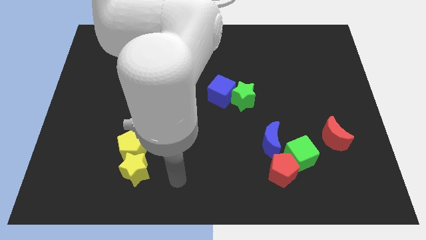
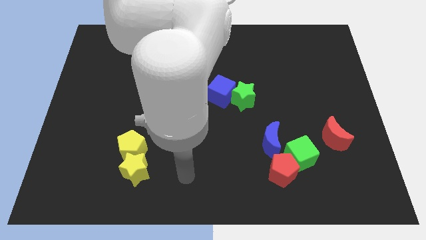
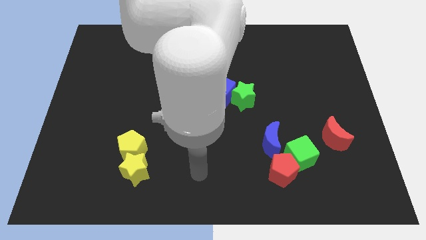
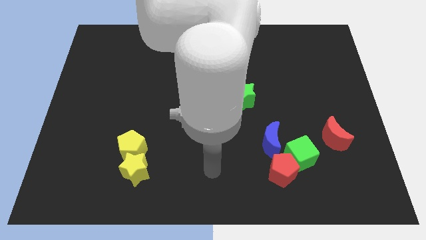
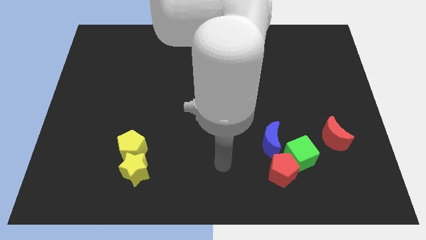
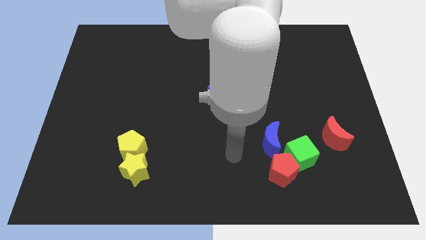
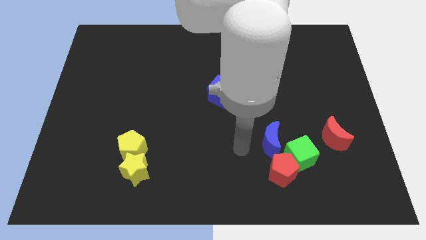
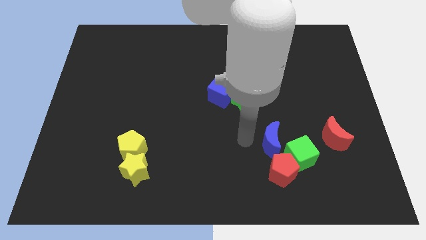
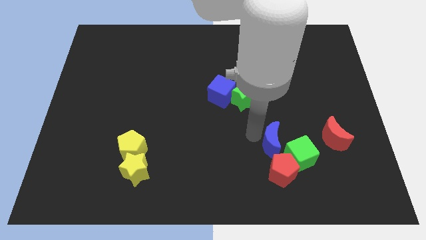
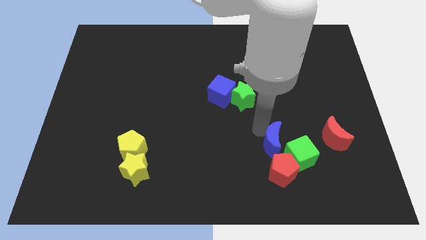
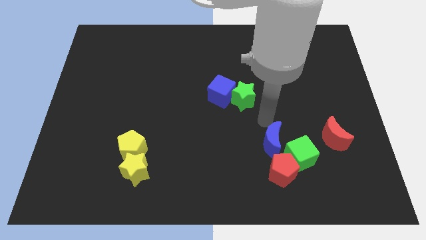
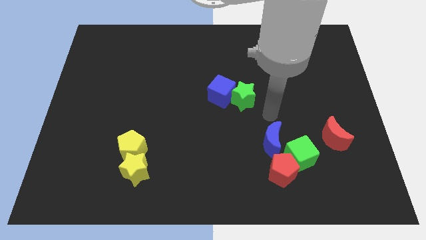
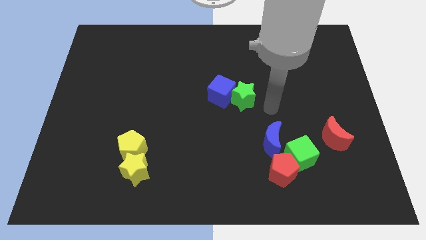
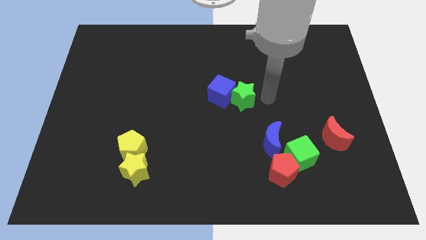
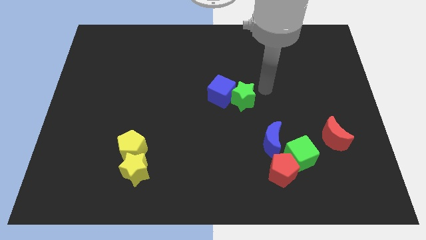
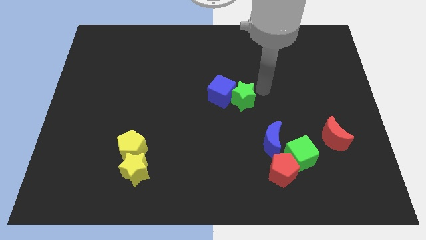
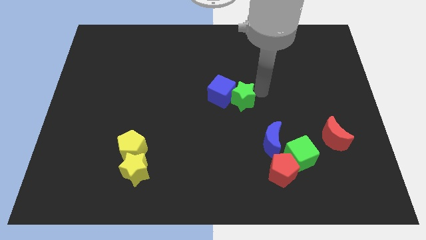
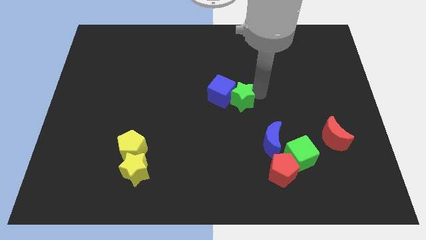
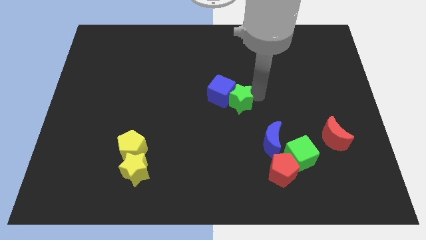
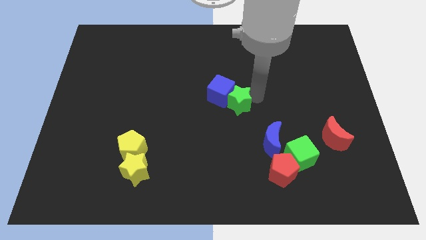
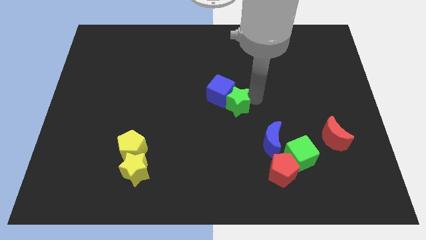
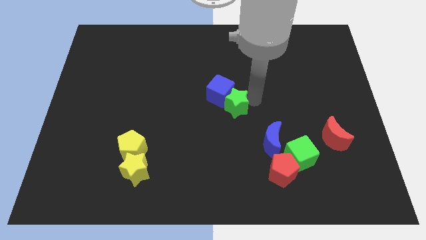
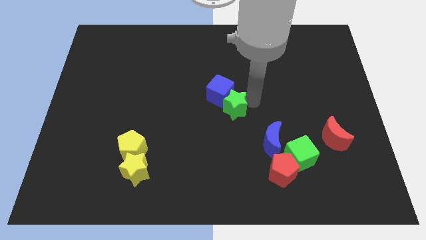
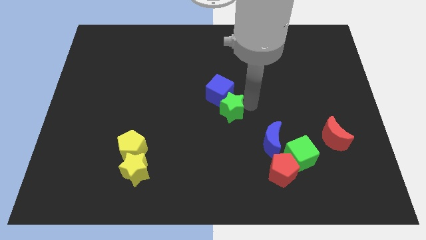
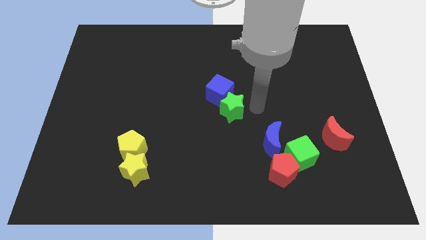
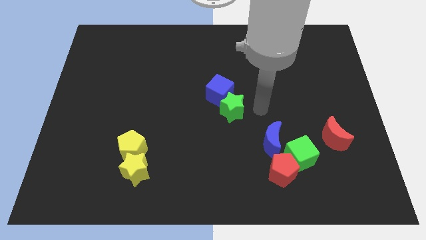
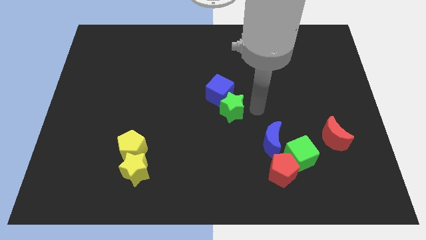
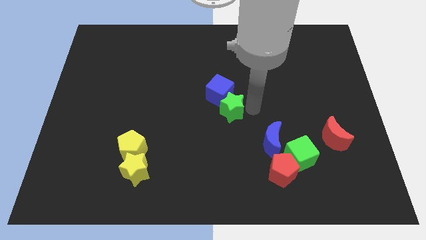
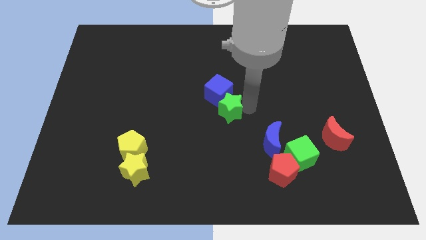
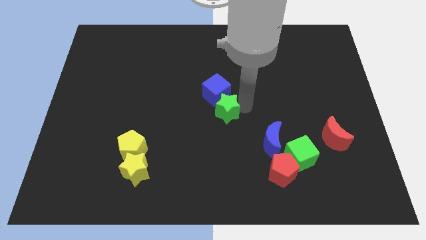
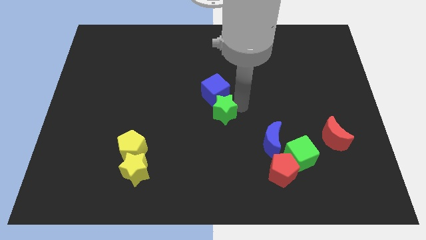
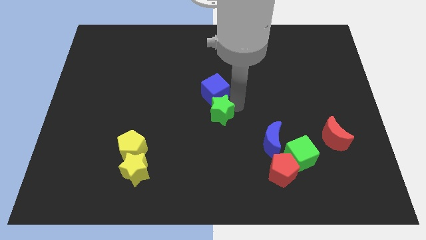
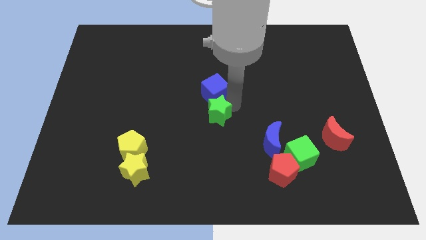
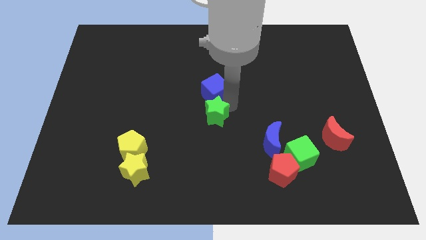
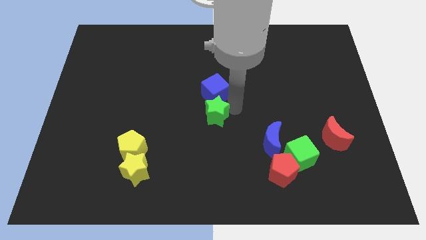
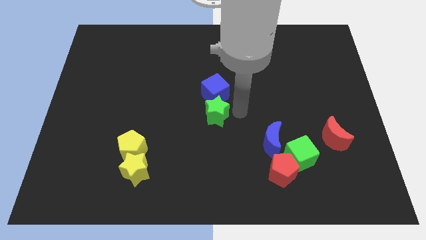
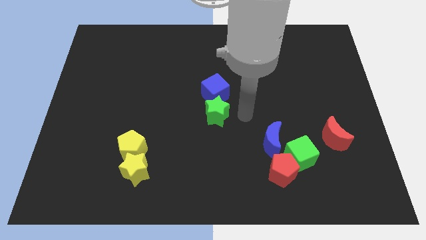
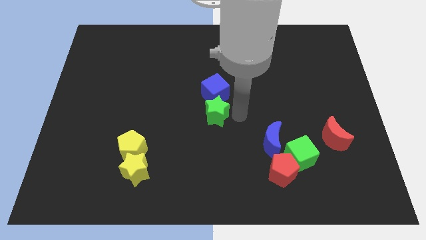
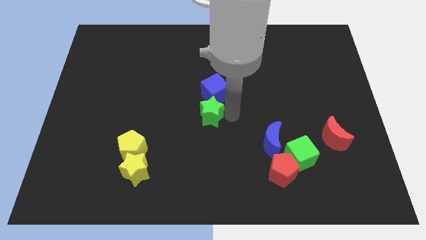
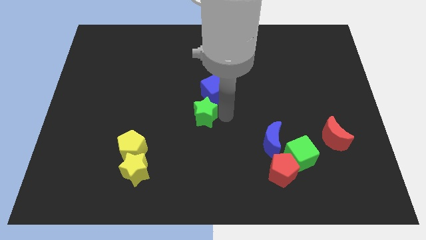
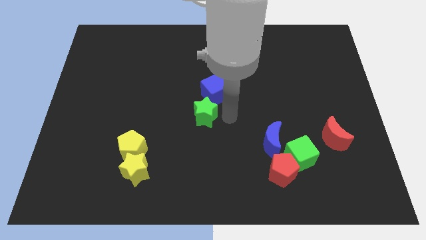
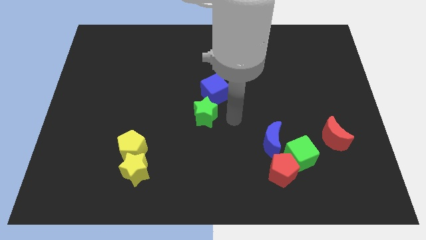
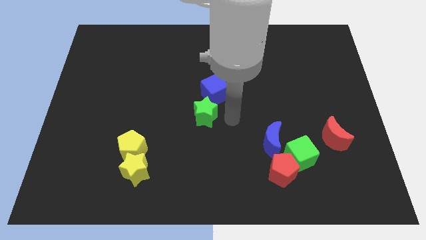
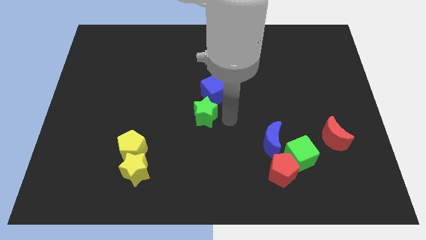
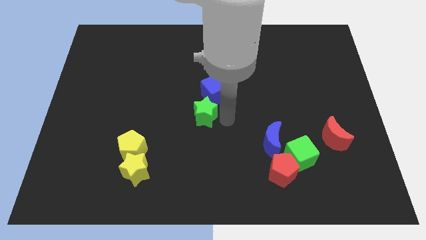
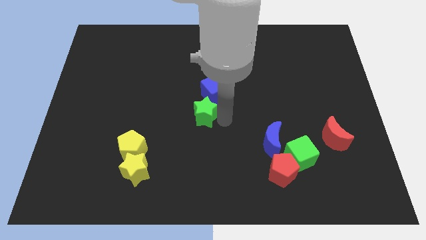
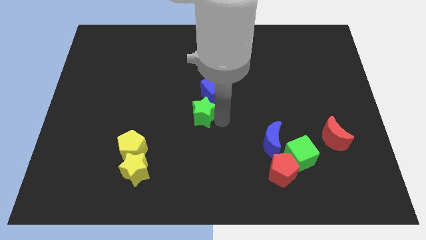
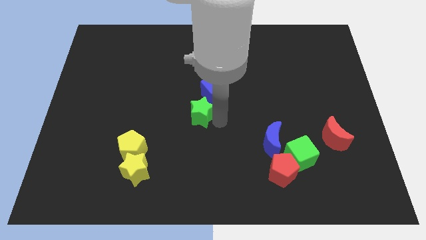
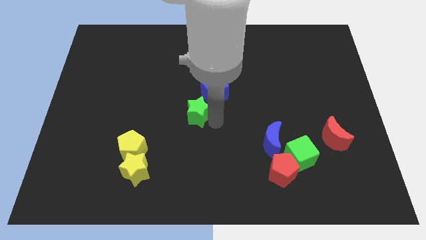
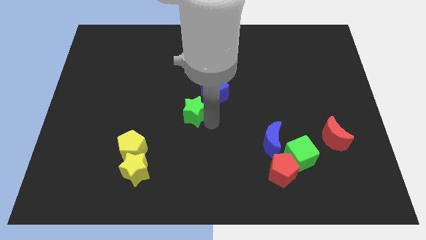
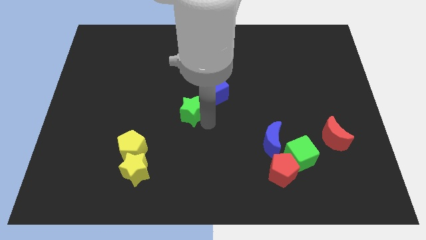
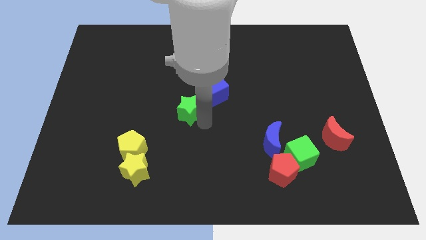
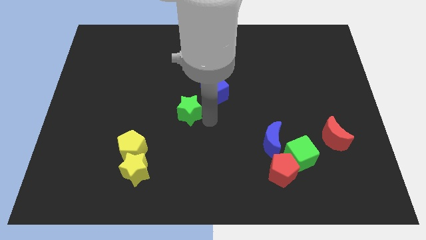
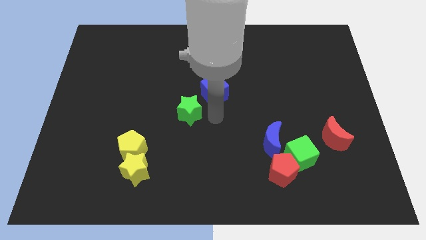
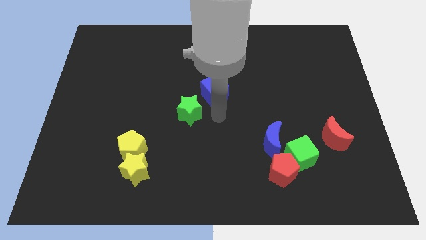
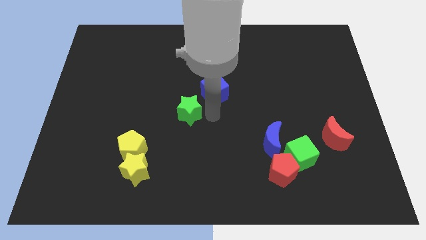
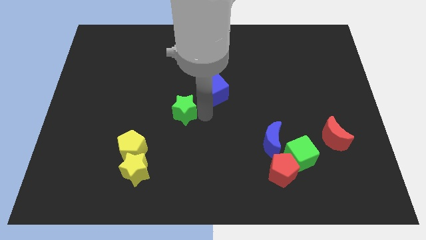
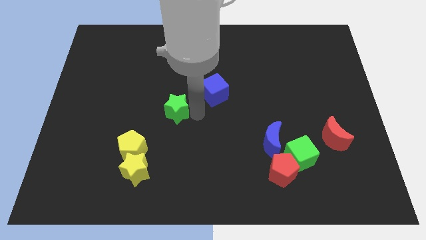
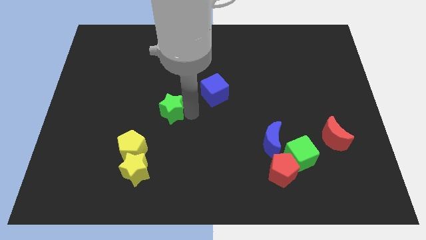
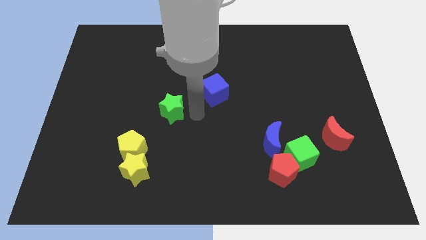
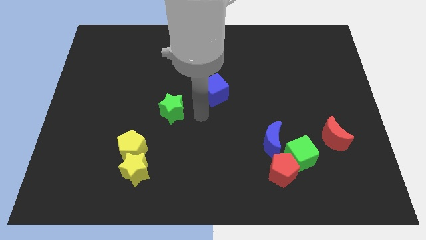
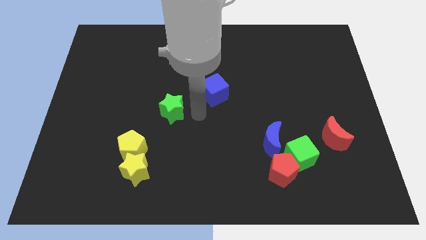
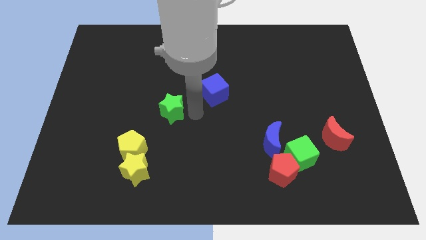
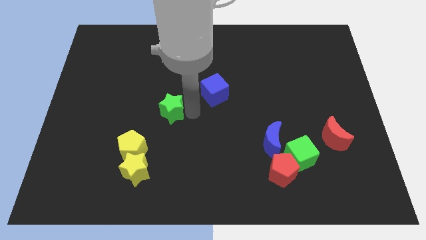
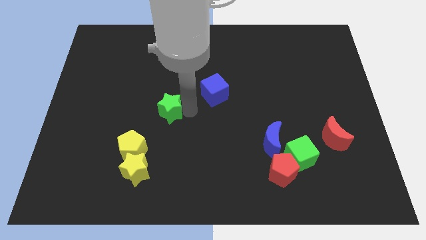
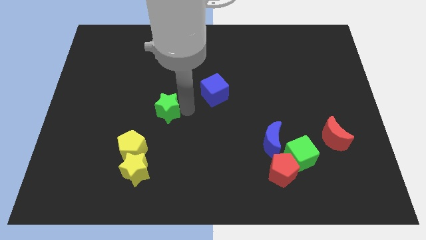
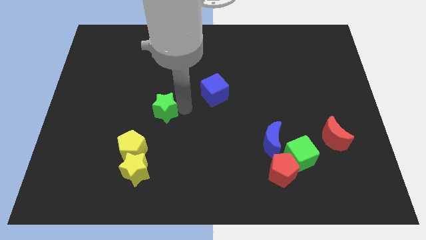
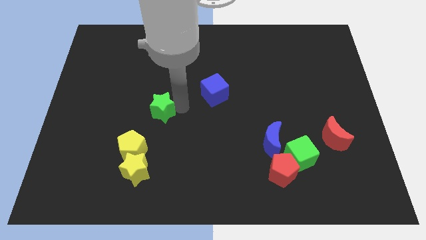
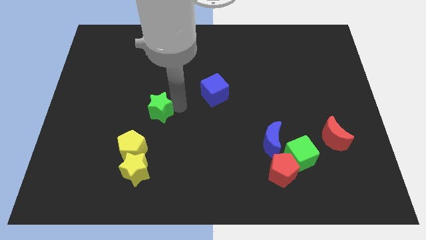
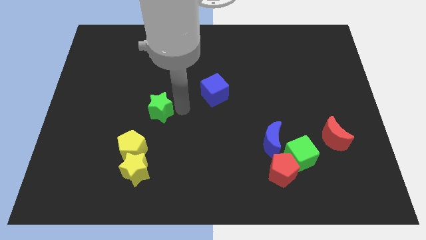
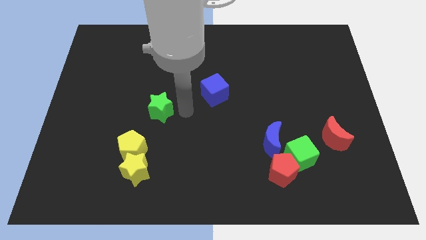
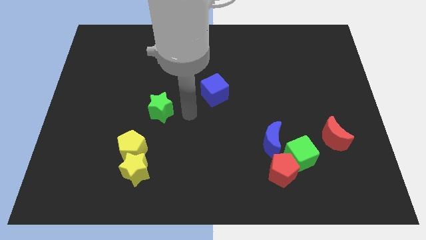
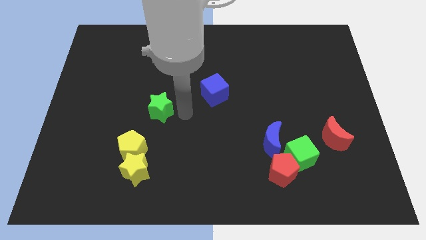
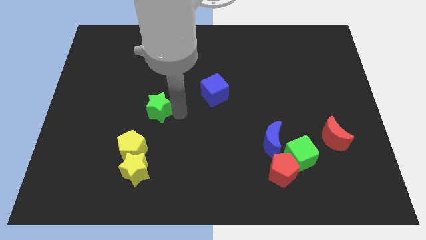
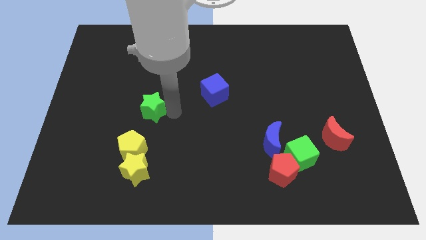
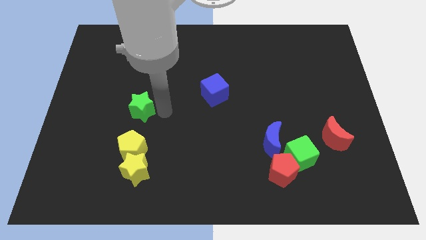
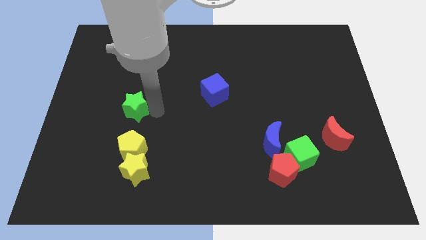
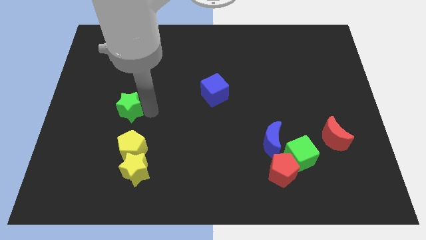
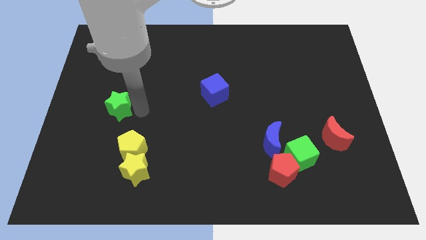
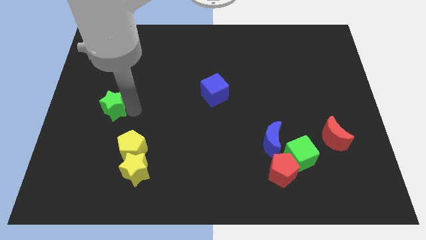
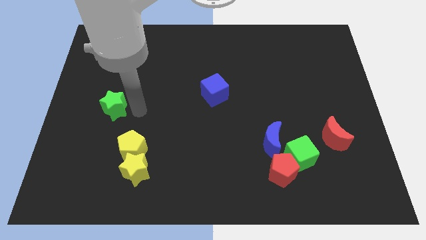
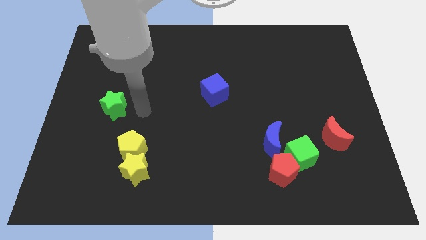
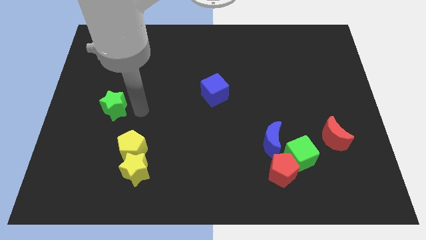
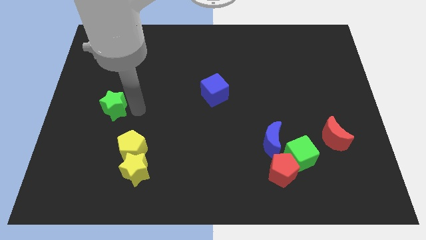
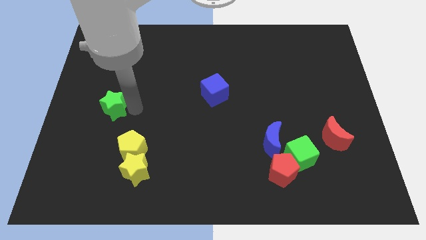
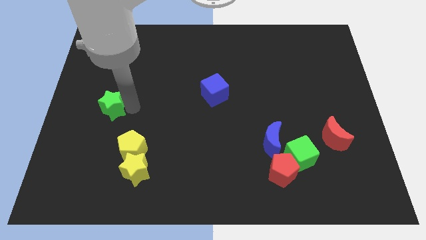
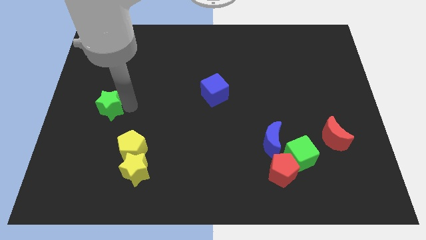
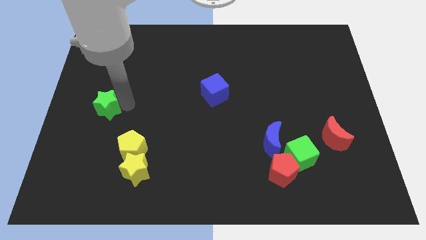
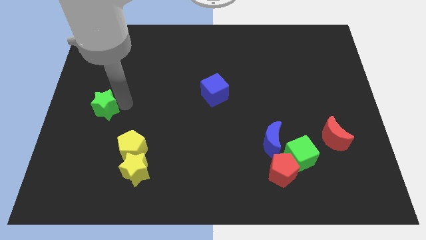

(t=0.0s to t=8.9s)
move the green star to the left side
